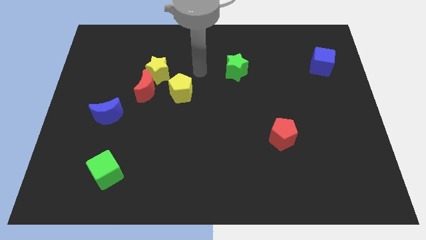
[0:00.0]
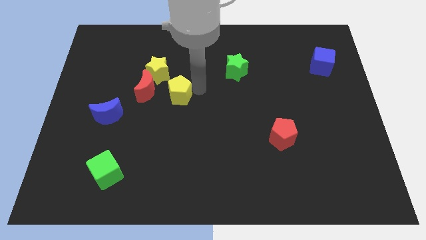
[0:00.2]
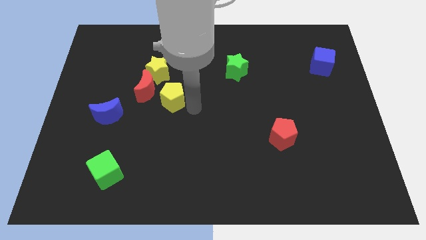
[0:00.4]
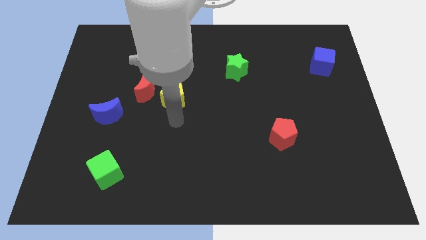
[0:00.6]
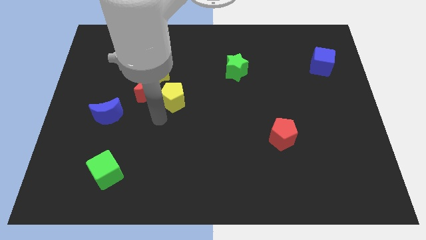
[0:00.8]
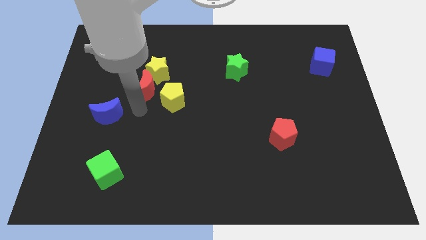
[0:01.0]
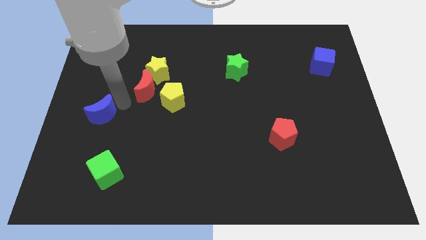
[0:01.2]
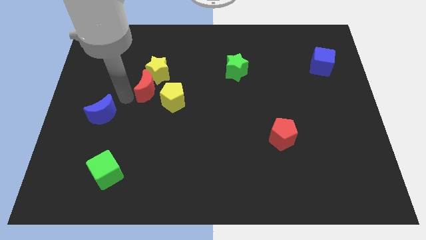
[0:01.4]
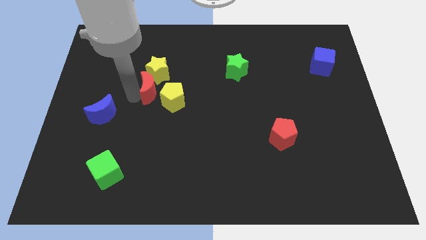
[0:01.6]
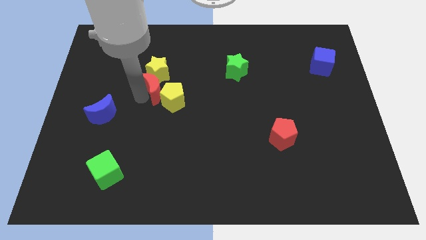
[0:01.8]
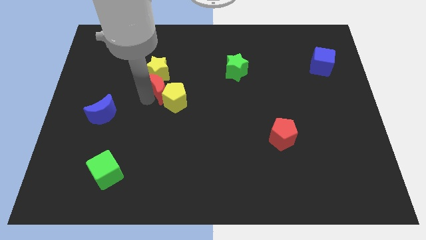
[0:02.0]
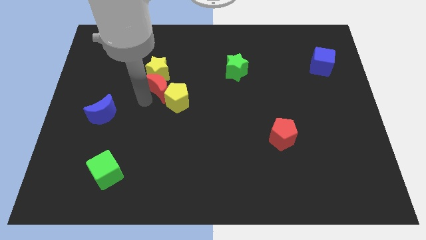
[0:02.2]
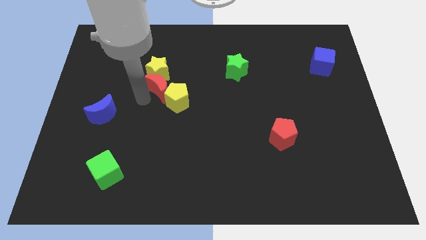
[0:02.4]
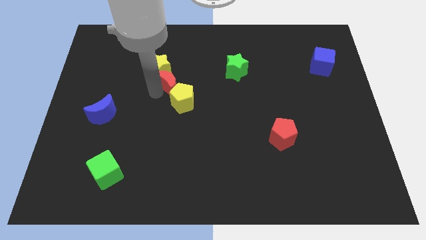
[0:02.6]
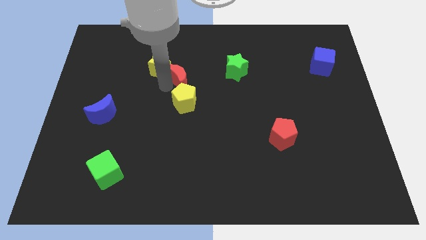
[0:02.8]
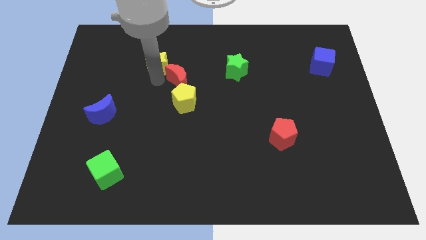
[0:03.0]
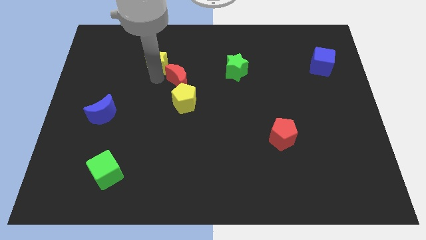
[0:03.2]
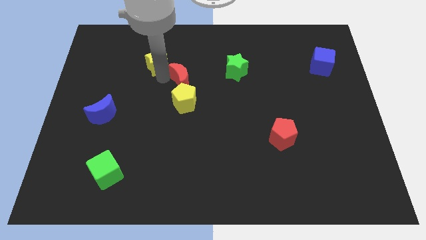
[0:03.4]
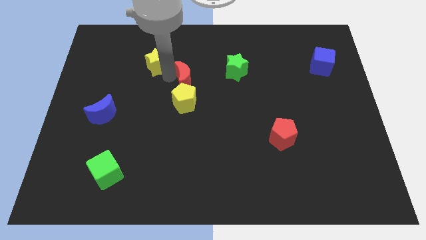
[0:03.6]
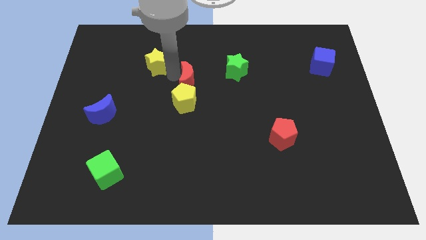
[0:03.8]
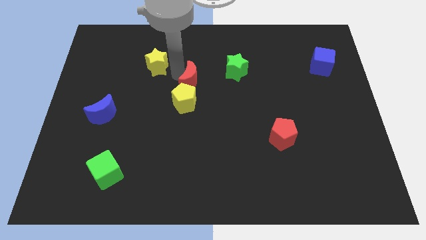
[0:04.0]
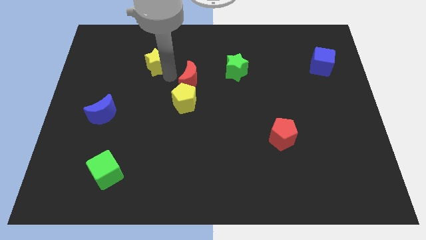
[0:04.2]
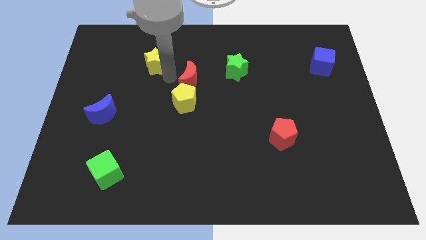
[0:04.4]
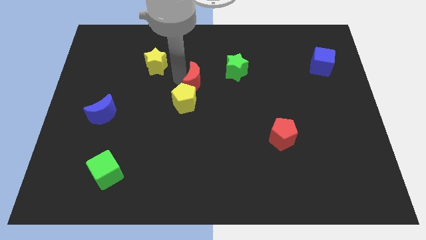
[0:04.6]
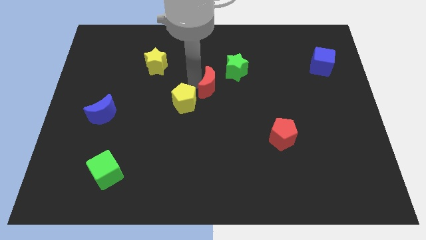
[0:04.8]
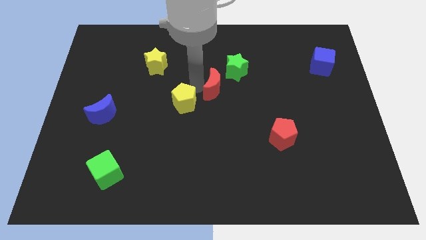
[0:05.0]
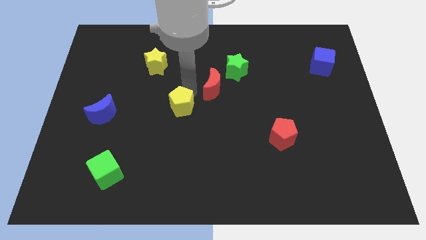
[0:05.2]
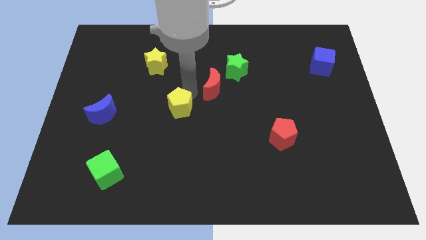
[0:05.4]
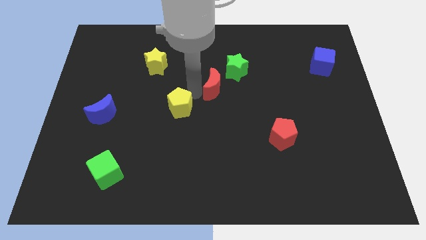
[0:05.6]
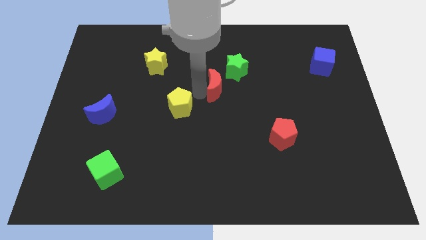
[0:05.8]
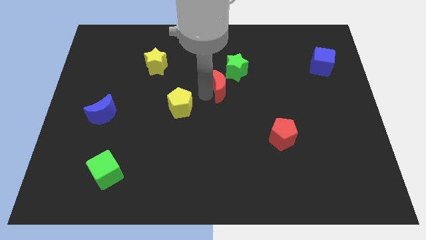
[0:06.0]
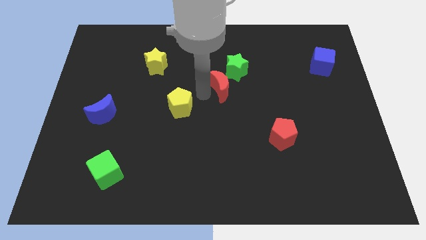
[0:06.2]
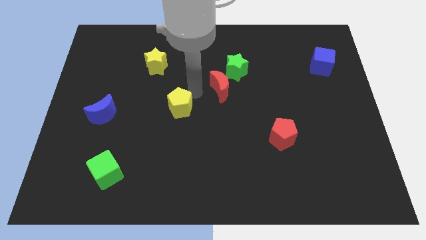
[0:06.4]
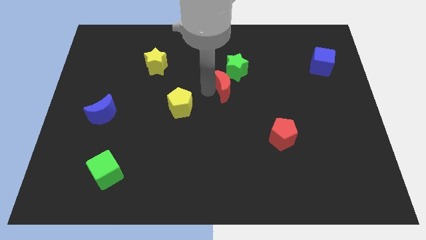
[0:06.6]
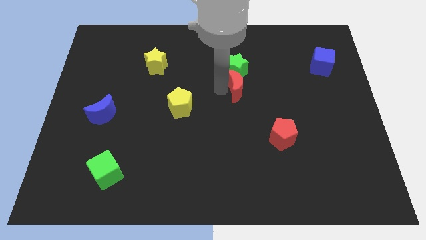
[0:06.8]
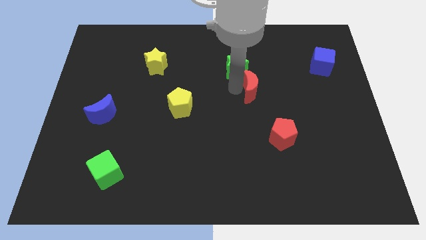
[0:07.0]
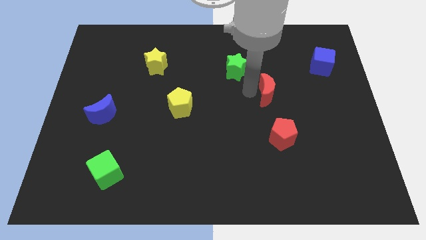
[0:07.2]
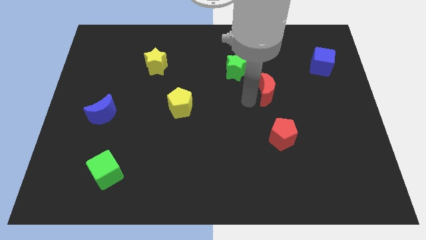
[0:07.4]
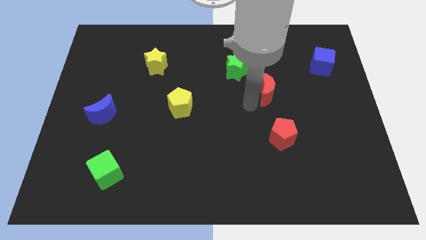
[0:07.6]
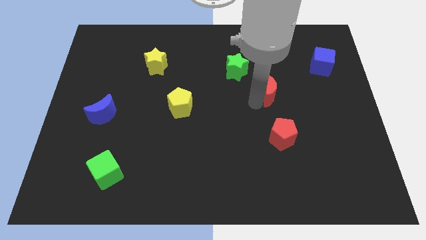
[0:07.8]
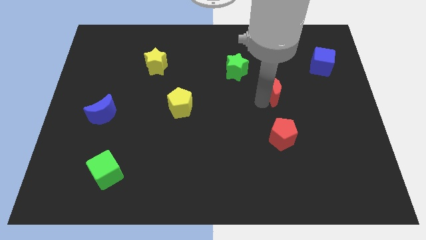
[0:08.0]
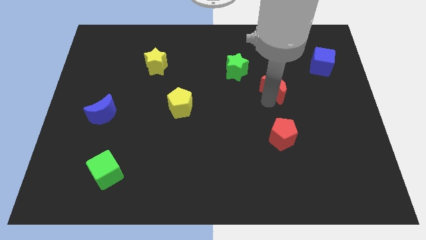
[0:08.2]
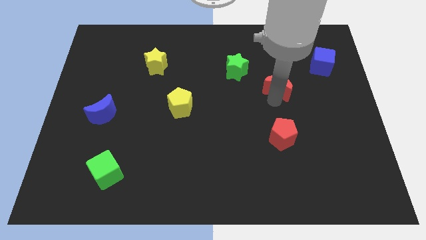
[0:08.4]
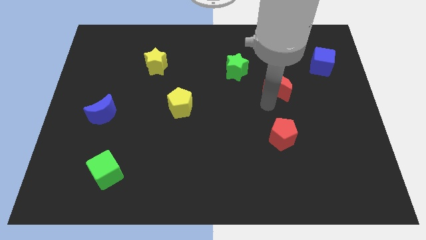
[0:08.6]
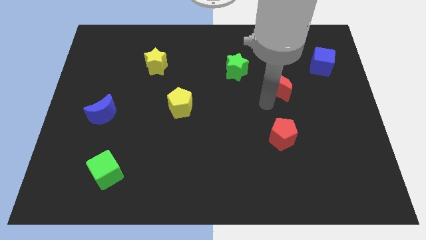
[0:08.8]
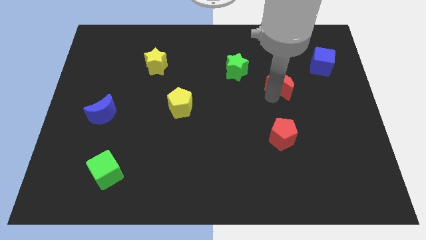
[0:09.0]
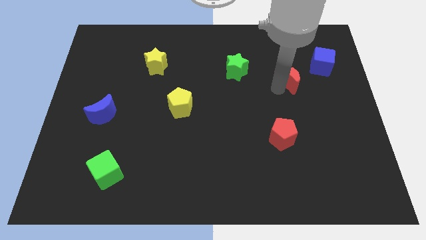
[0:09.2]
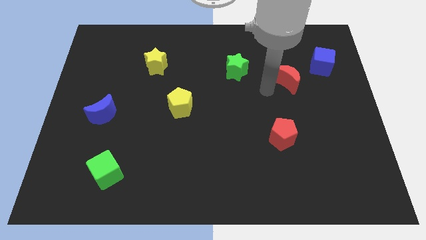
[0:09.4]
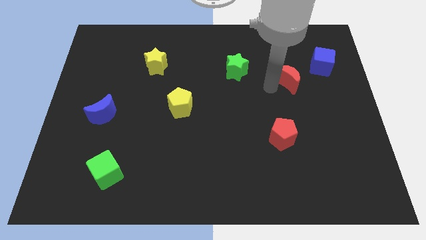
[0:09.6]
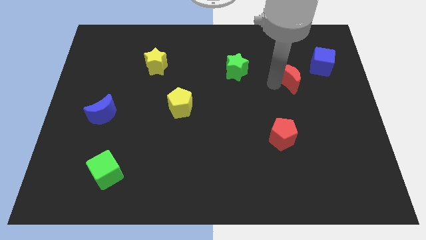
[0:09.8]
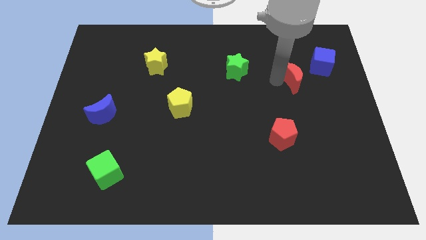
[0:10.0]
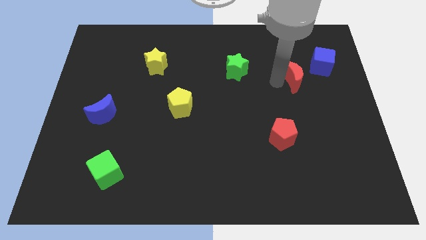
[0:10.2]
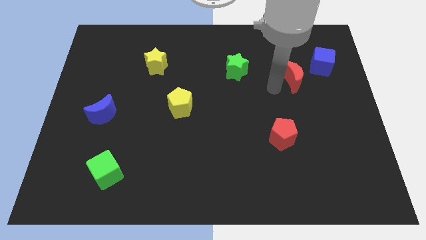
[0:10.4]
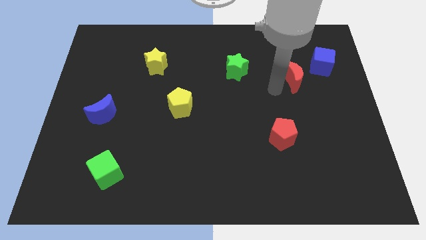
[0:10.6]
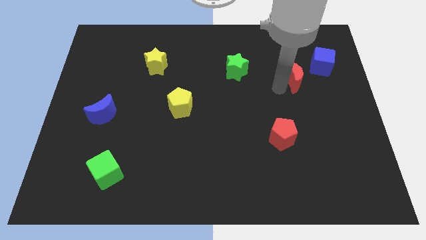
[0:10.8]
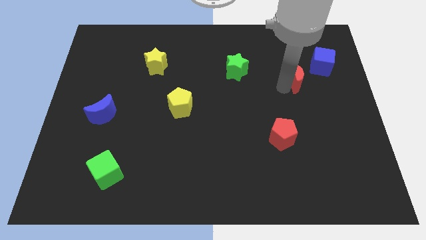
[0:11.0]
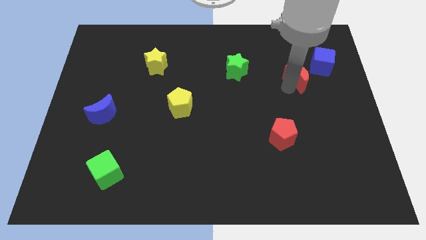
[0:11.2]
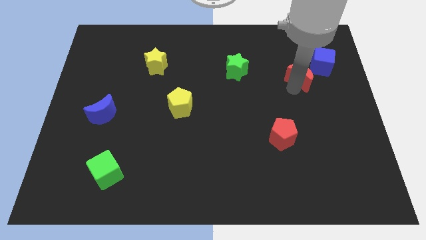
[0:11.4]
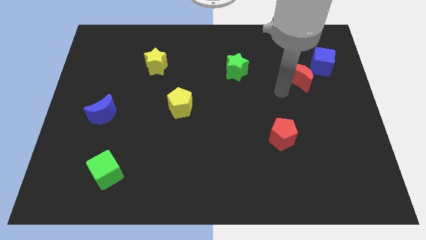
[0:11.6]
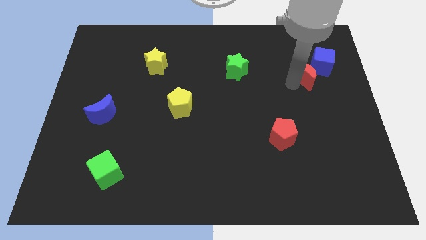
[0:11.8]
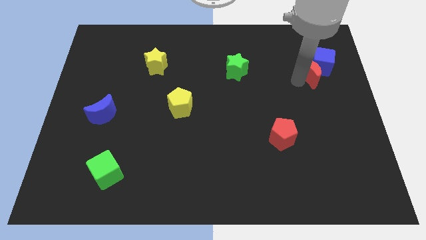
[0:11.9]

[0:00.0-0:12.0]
push the red moon close to the blue cube

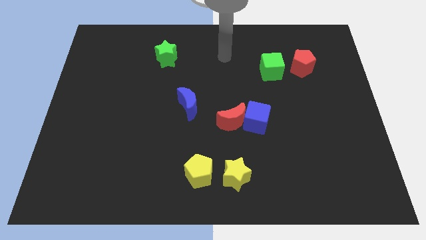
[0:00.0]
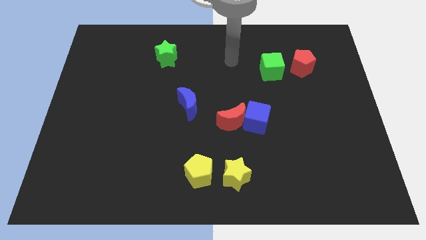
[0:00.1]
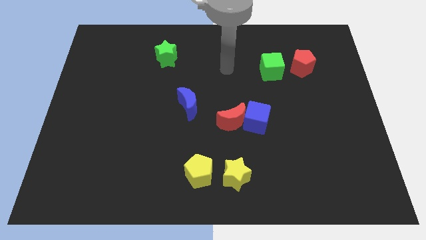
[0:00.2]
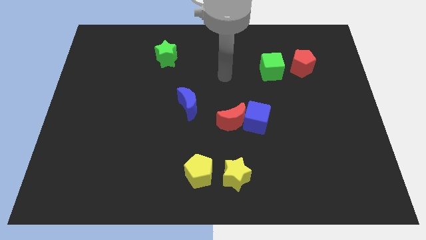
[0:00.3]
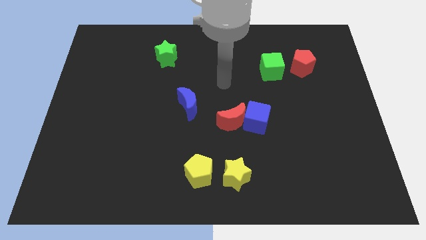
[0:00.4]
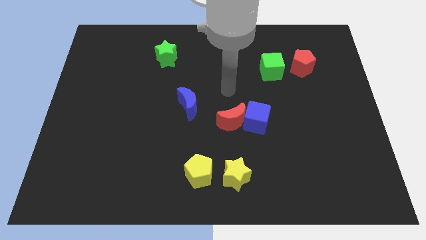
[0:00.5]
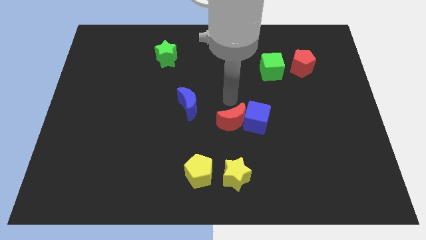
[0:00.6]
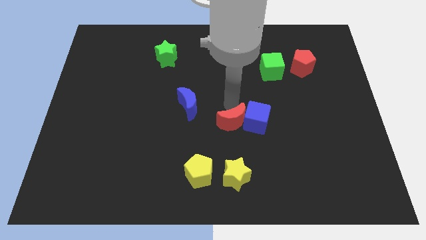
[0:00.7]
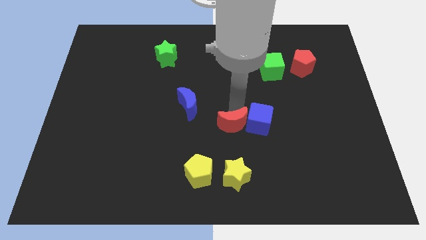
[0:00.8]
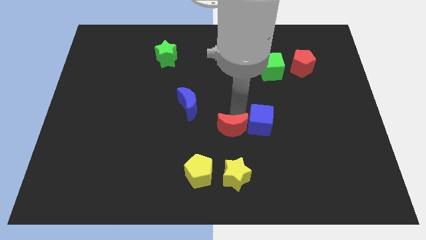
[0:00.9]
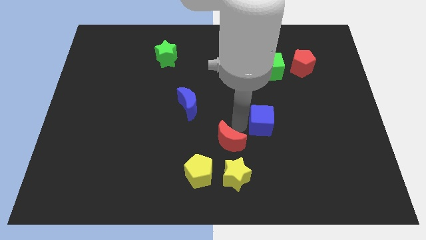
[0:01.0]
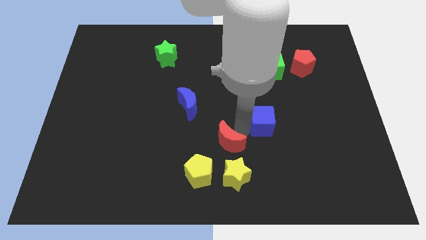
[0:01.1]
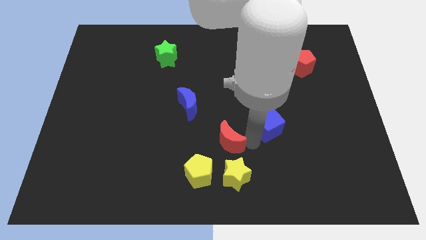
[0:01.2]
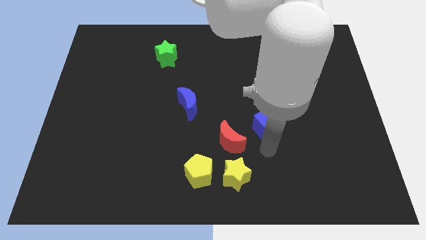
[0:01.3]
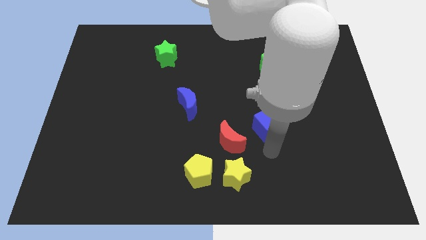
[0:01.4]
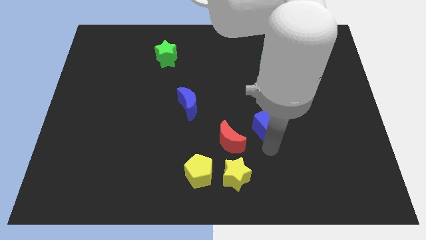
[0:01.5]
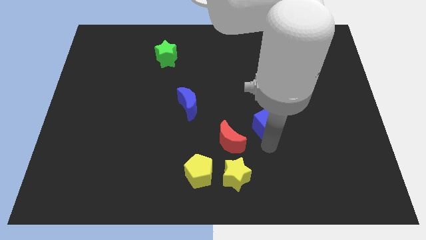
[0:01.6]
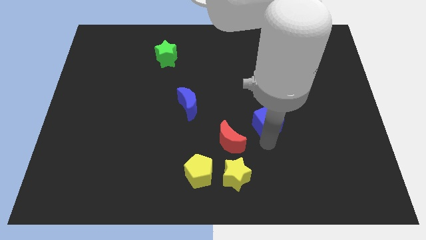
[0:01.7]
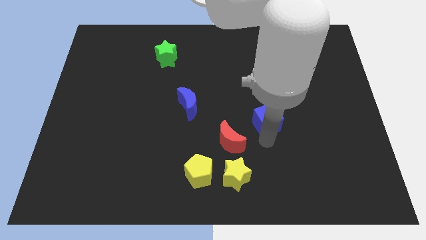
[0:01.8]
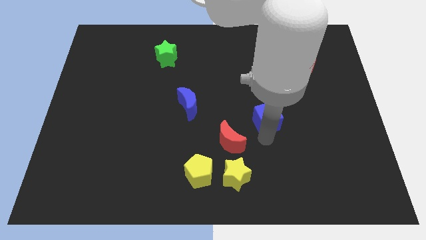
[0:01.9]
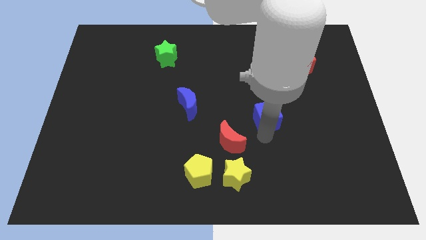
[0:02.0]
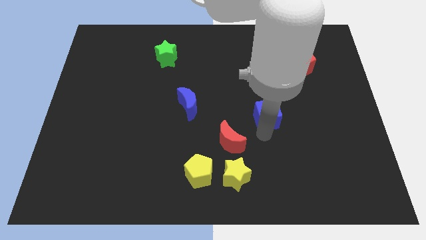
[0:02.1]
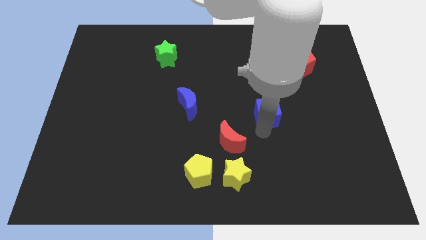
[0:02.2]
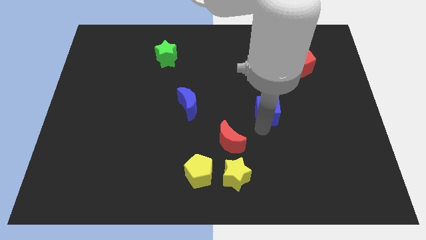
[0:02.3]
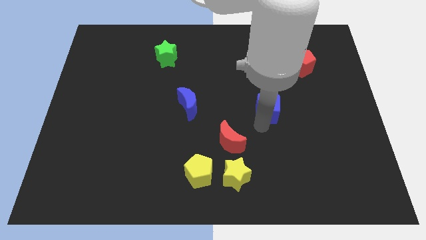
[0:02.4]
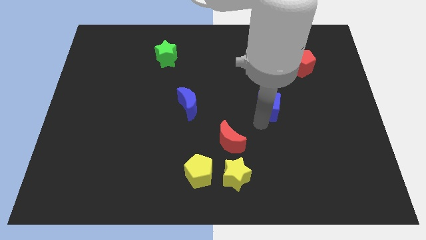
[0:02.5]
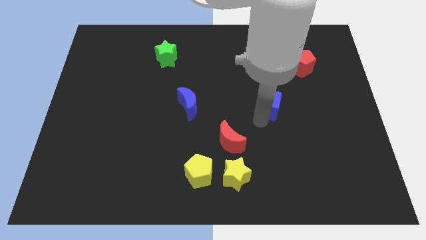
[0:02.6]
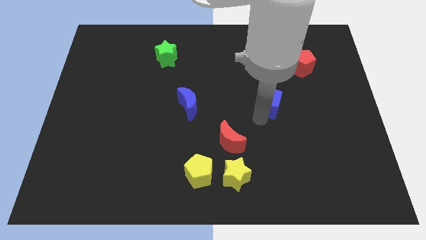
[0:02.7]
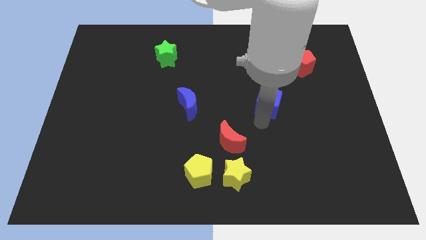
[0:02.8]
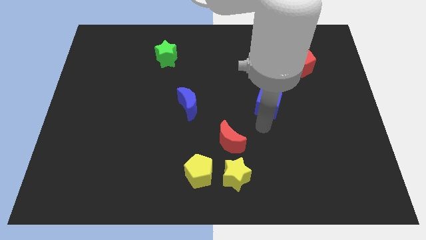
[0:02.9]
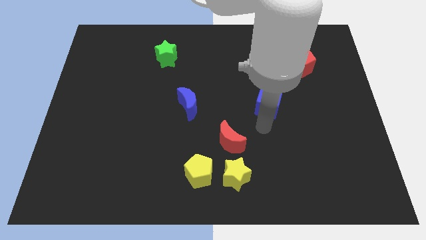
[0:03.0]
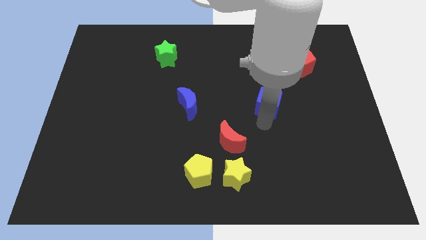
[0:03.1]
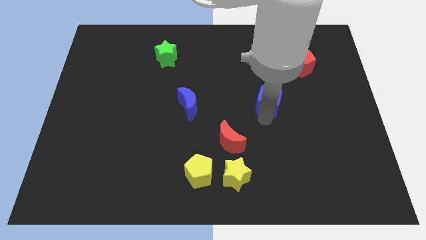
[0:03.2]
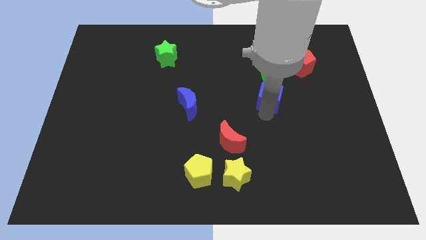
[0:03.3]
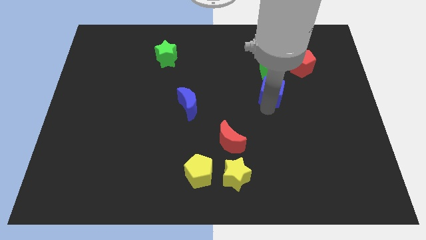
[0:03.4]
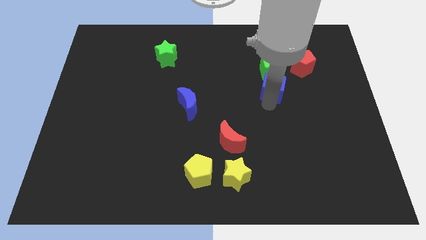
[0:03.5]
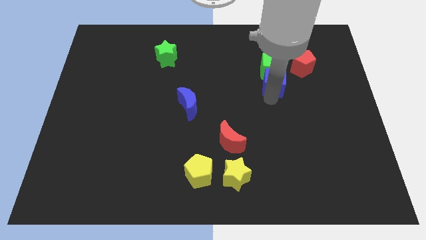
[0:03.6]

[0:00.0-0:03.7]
push the blue cube towards the green cube
